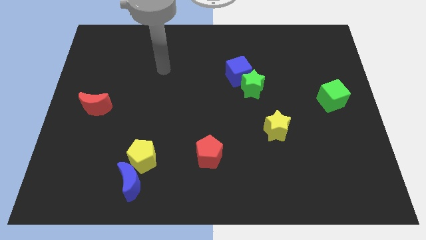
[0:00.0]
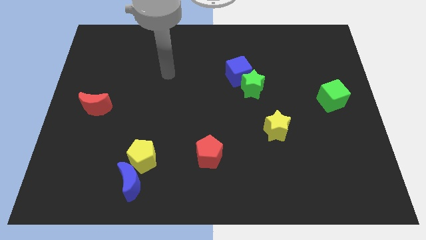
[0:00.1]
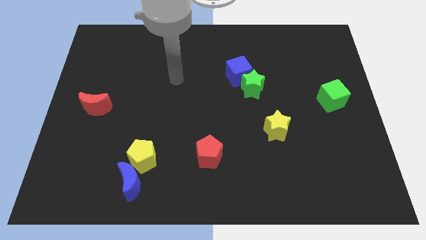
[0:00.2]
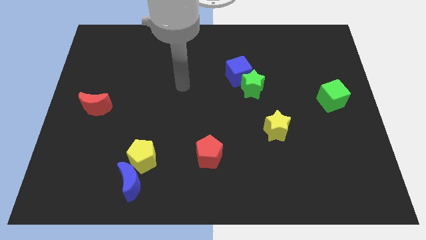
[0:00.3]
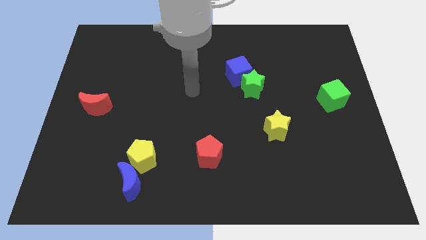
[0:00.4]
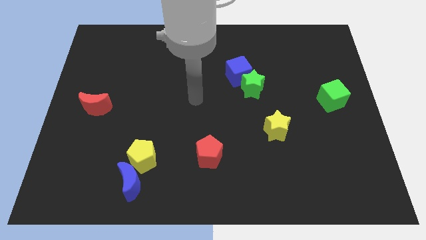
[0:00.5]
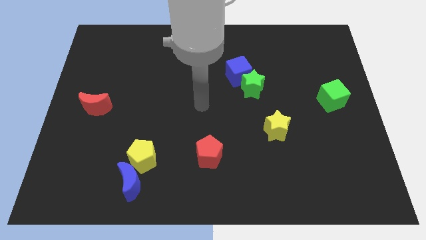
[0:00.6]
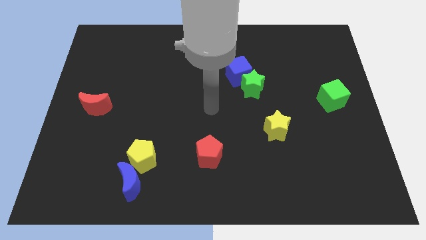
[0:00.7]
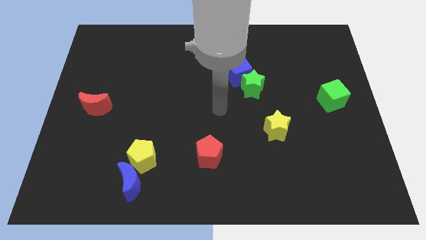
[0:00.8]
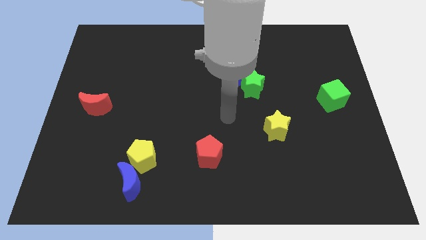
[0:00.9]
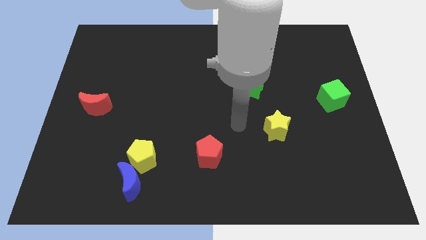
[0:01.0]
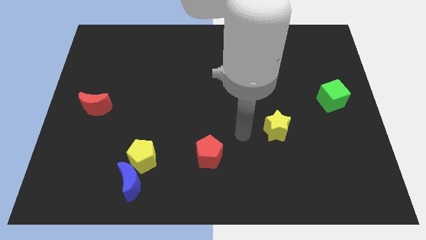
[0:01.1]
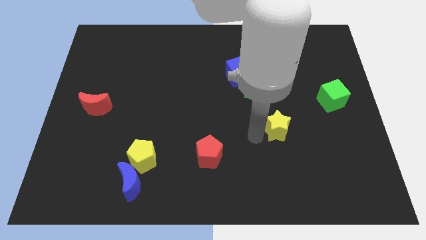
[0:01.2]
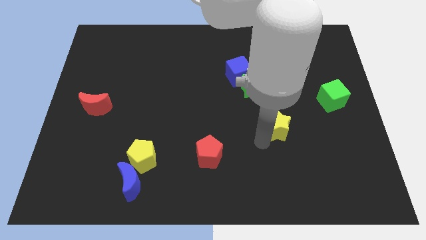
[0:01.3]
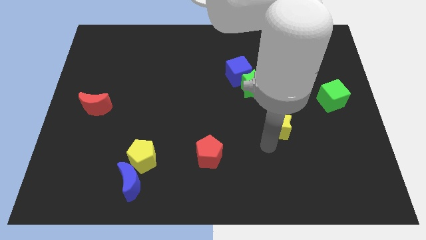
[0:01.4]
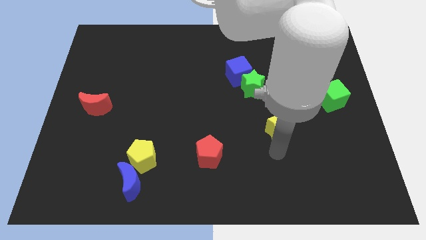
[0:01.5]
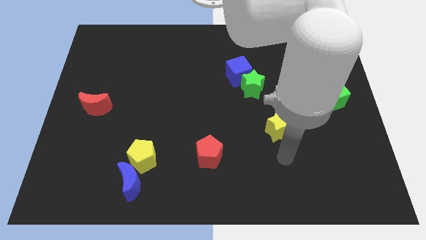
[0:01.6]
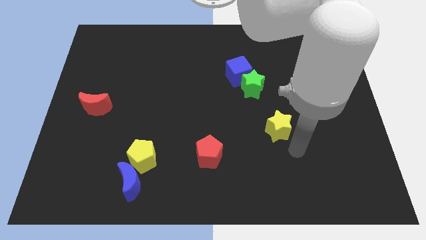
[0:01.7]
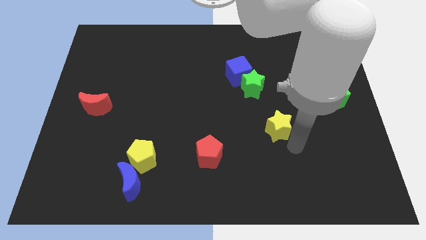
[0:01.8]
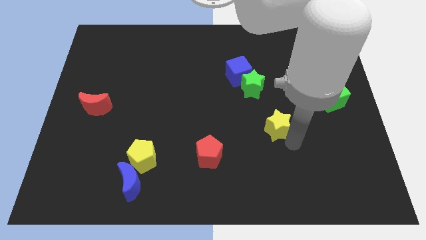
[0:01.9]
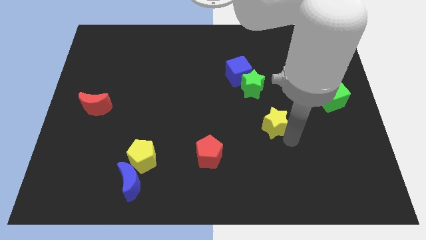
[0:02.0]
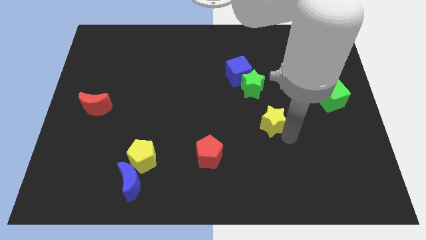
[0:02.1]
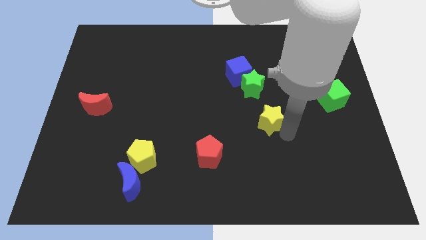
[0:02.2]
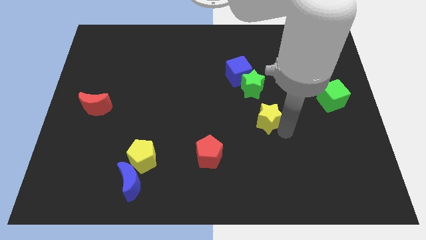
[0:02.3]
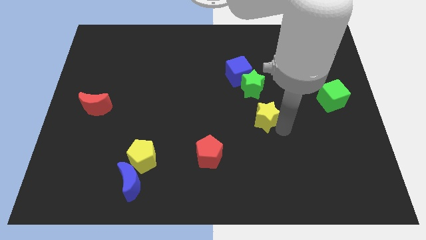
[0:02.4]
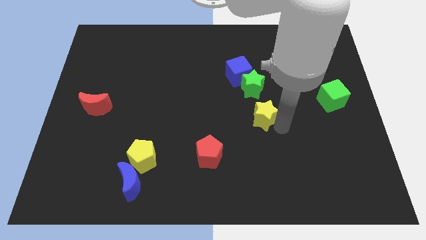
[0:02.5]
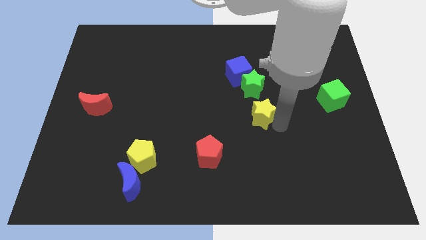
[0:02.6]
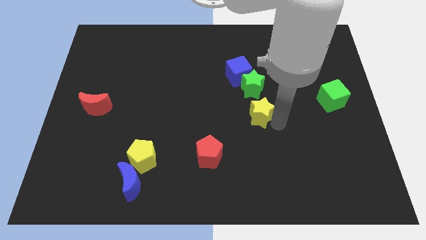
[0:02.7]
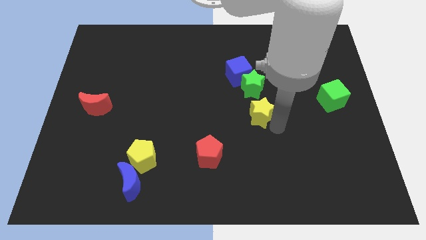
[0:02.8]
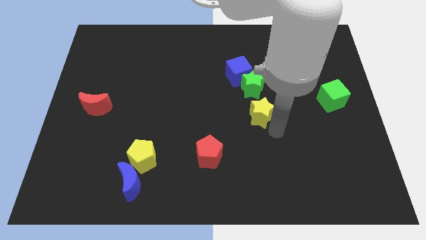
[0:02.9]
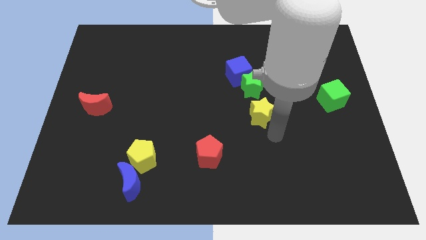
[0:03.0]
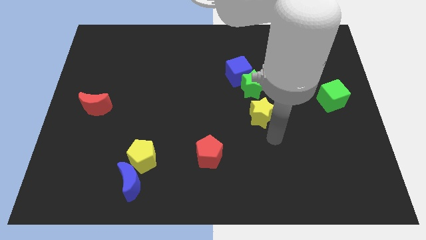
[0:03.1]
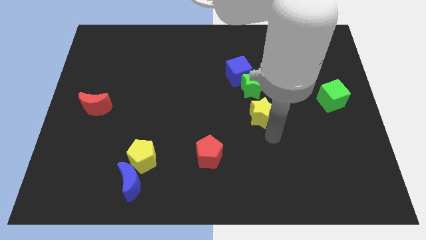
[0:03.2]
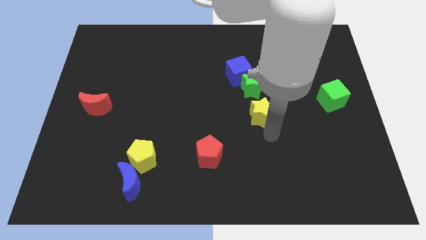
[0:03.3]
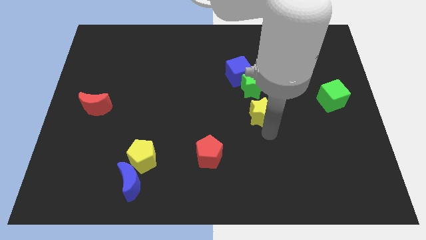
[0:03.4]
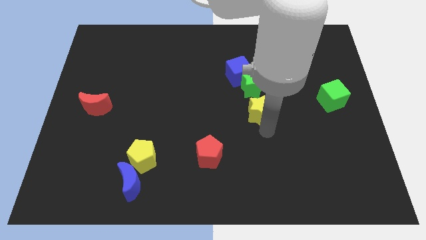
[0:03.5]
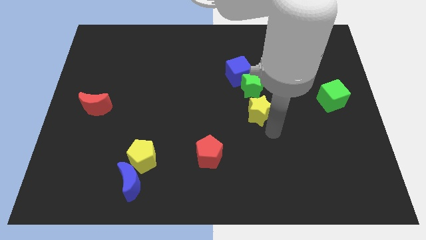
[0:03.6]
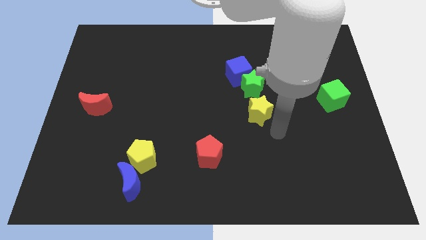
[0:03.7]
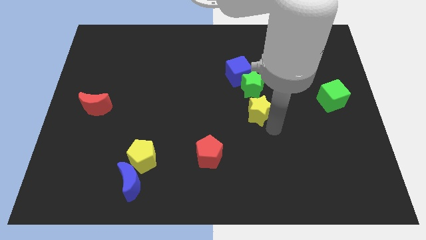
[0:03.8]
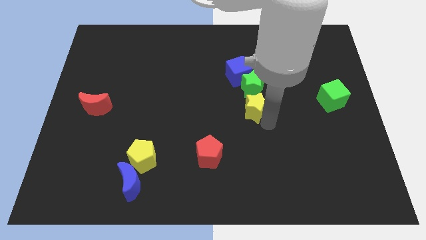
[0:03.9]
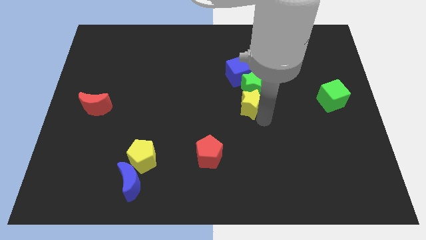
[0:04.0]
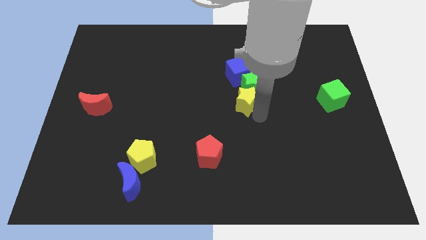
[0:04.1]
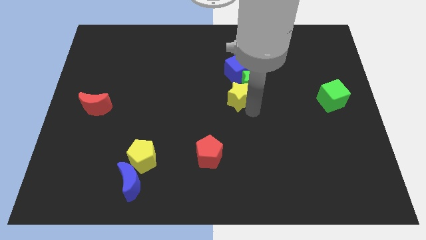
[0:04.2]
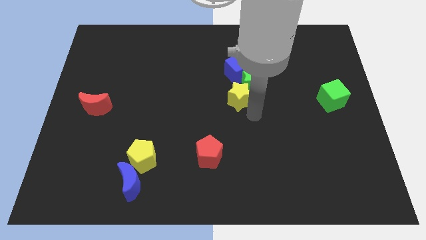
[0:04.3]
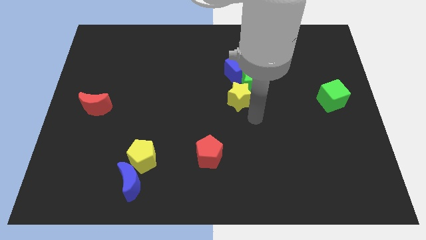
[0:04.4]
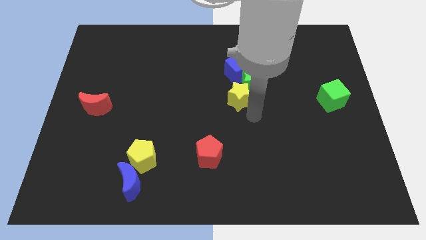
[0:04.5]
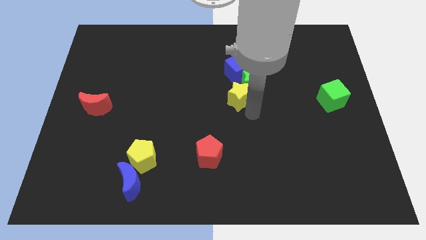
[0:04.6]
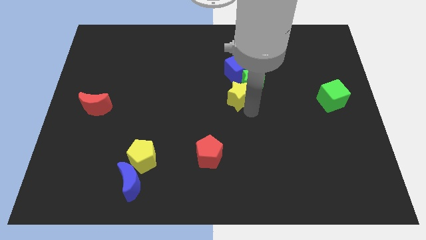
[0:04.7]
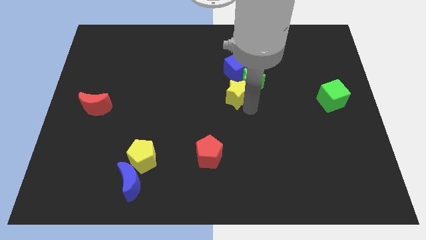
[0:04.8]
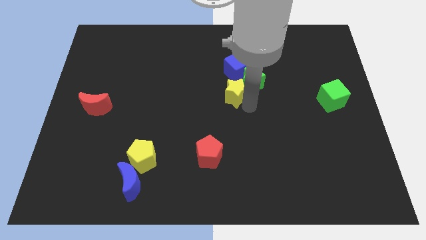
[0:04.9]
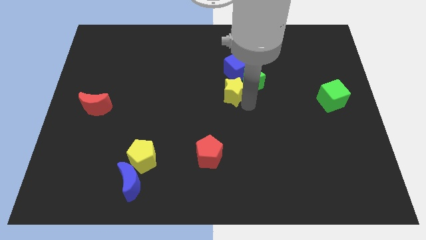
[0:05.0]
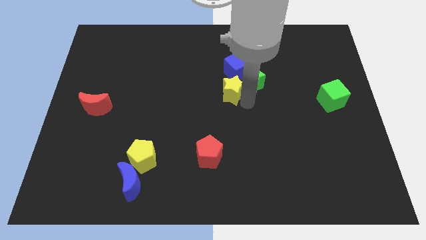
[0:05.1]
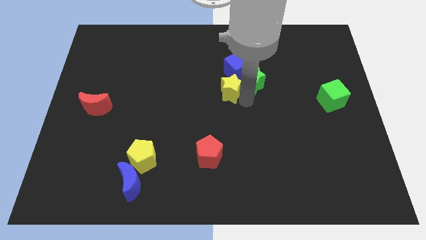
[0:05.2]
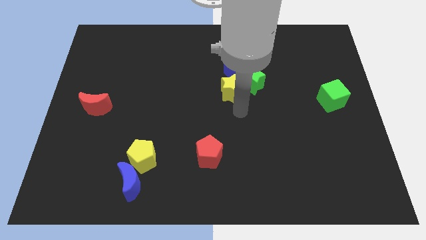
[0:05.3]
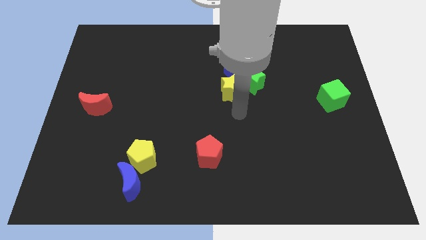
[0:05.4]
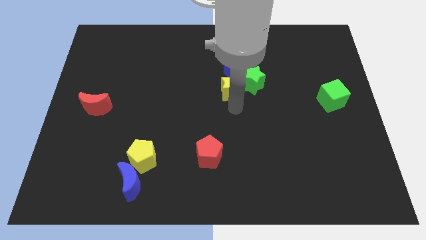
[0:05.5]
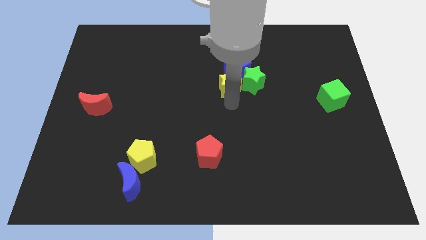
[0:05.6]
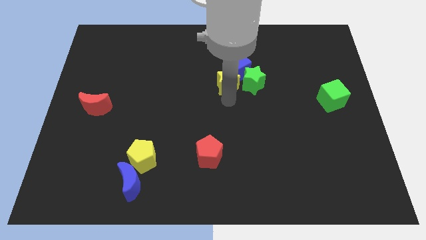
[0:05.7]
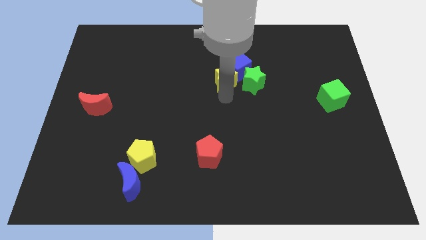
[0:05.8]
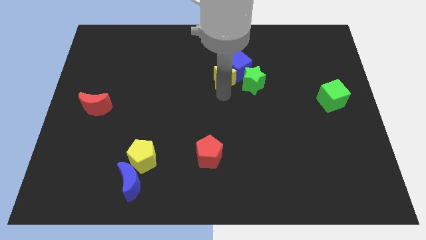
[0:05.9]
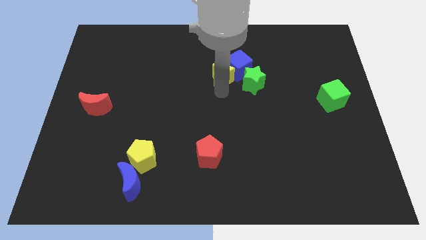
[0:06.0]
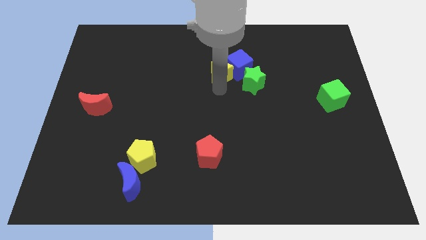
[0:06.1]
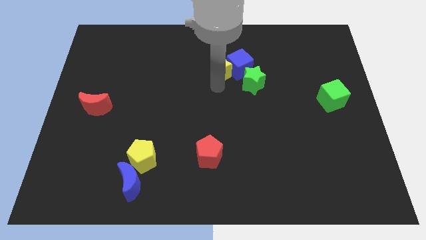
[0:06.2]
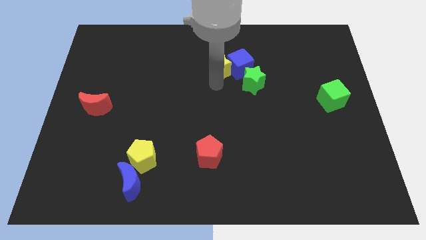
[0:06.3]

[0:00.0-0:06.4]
push the yellow star to the top left of the blue cube
